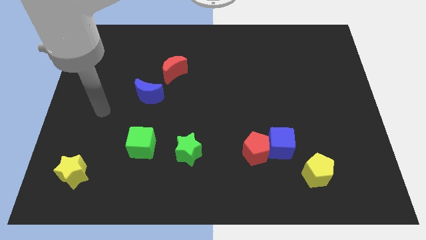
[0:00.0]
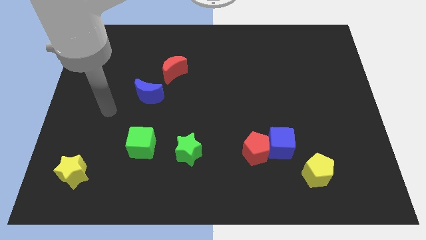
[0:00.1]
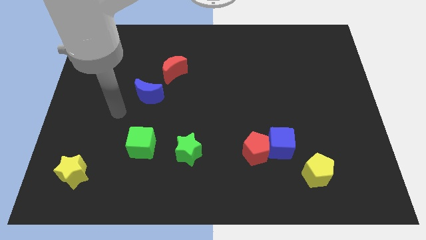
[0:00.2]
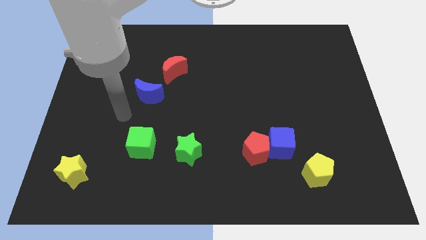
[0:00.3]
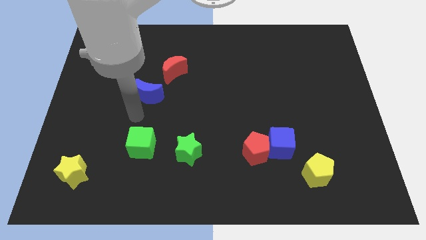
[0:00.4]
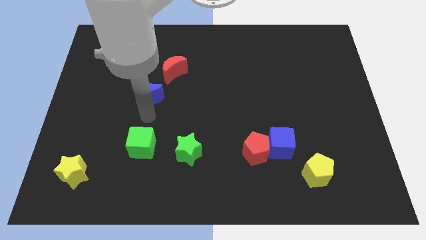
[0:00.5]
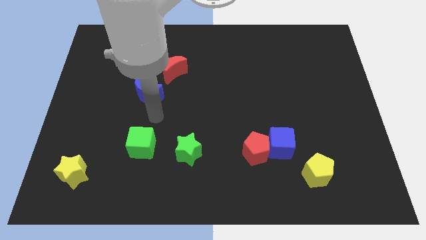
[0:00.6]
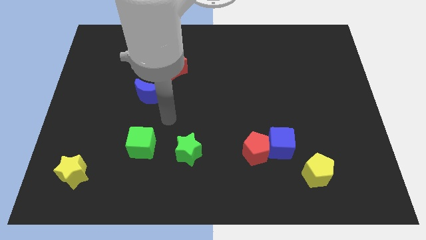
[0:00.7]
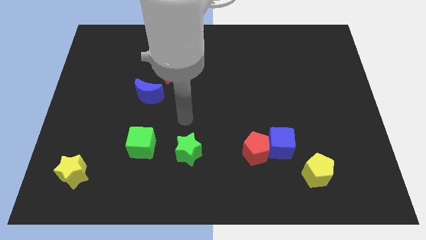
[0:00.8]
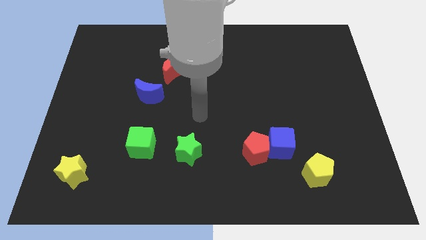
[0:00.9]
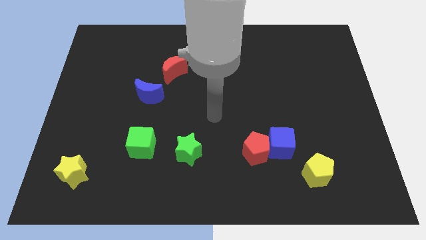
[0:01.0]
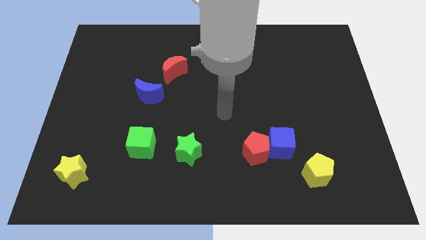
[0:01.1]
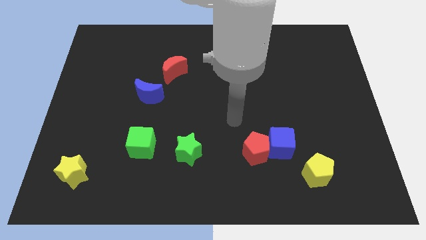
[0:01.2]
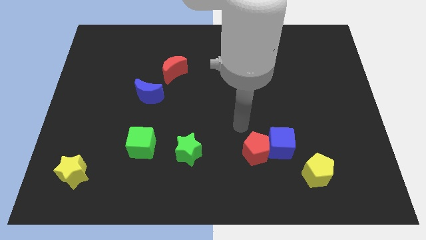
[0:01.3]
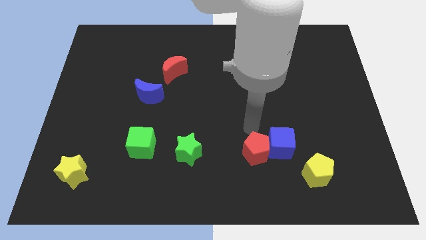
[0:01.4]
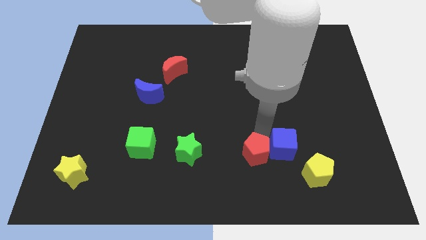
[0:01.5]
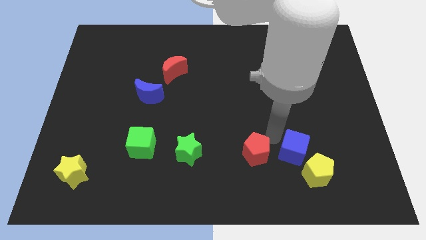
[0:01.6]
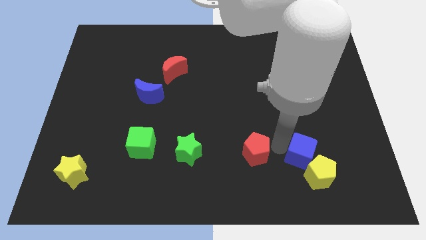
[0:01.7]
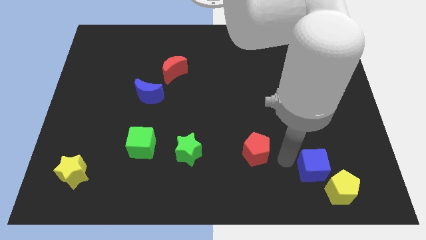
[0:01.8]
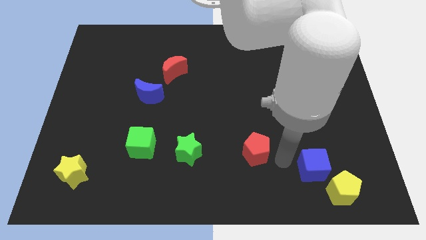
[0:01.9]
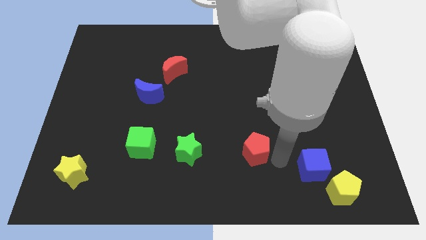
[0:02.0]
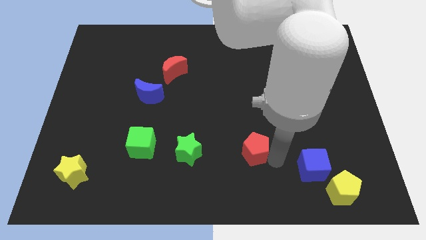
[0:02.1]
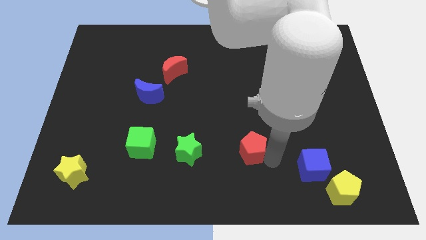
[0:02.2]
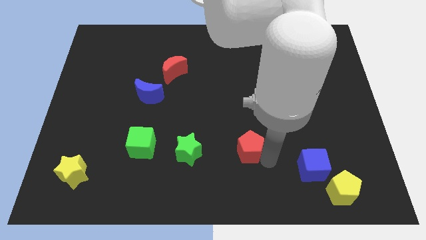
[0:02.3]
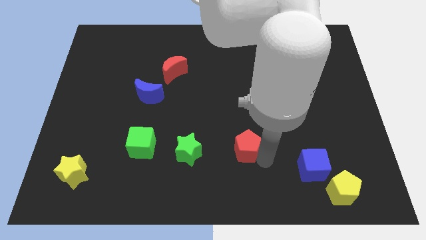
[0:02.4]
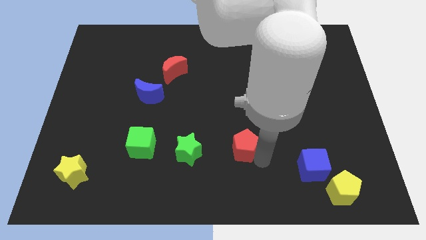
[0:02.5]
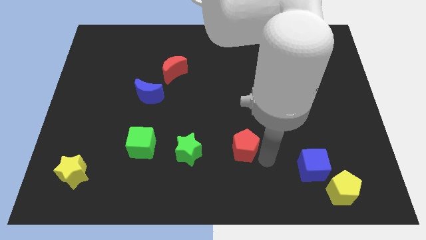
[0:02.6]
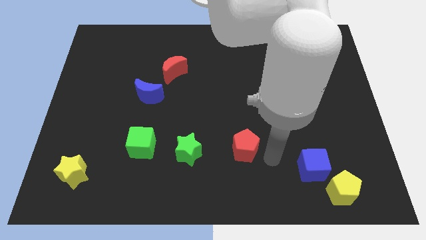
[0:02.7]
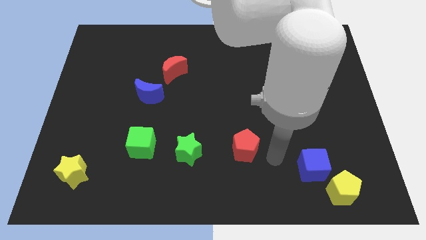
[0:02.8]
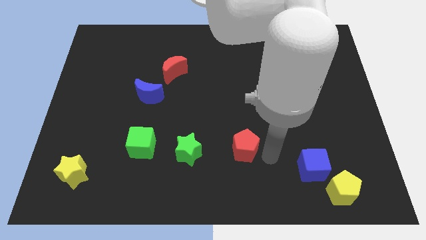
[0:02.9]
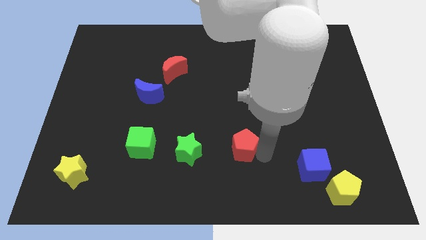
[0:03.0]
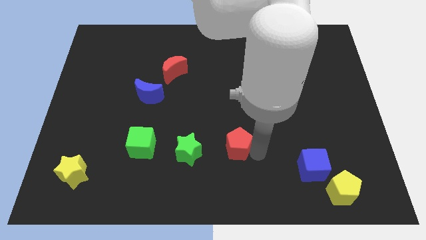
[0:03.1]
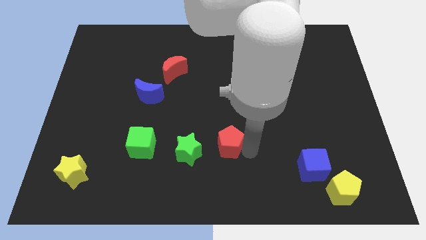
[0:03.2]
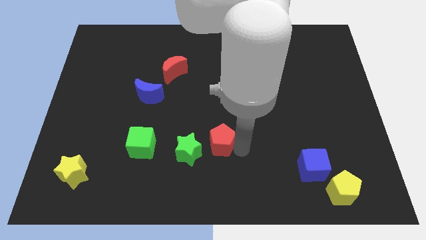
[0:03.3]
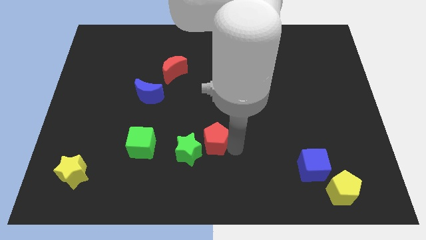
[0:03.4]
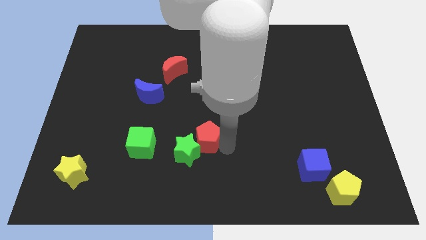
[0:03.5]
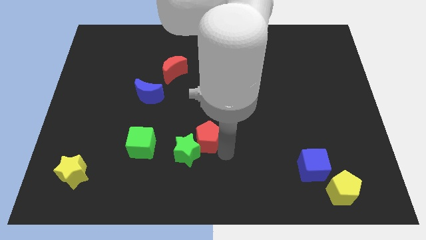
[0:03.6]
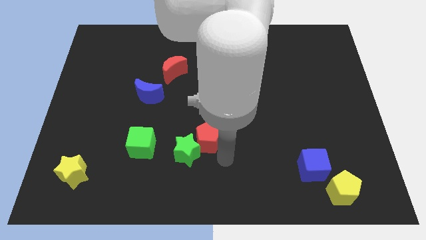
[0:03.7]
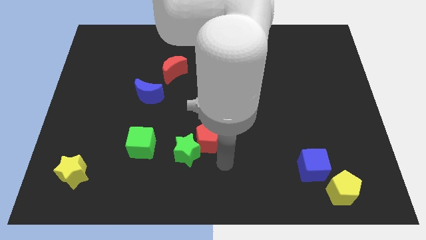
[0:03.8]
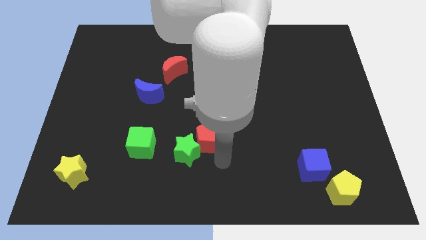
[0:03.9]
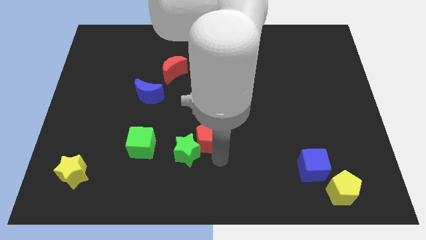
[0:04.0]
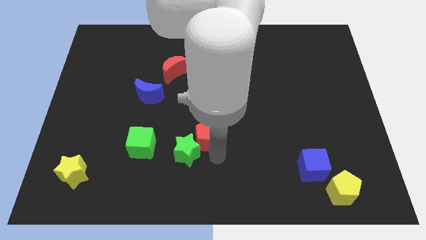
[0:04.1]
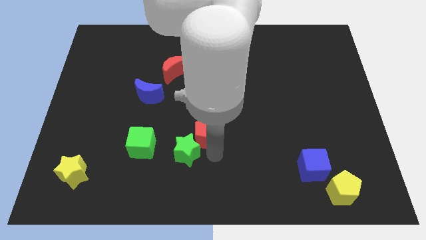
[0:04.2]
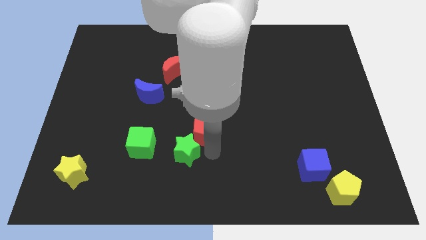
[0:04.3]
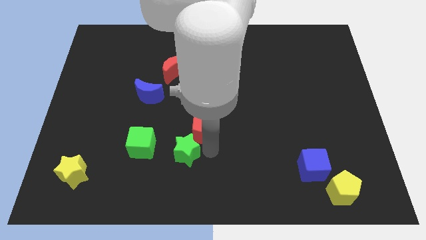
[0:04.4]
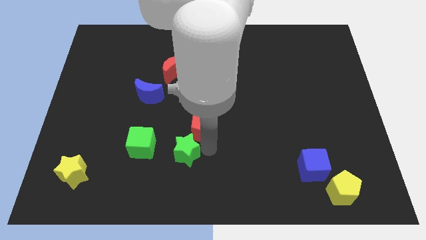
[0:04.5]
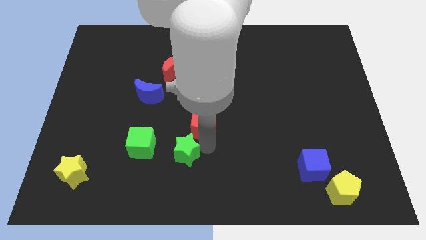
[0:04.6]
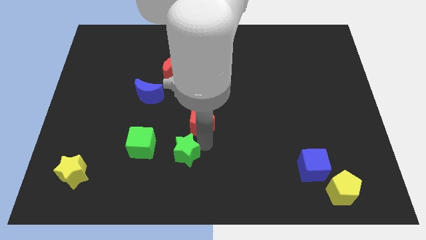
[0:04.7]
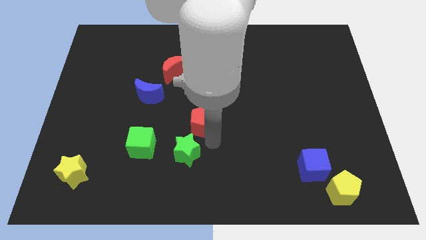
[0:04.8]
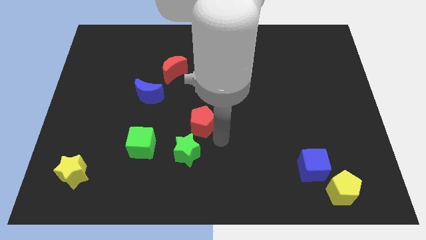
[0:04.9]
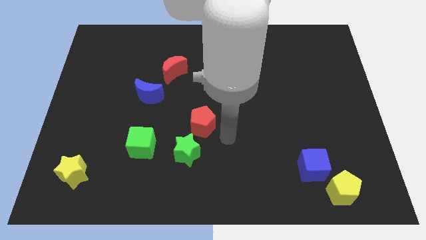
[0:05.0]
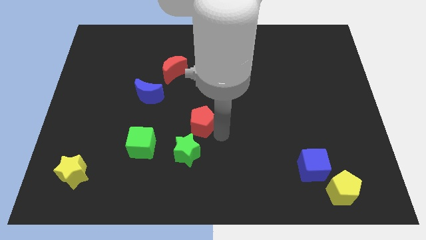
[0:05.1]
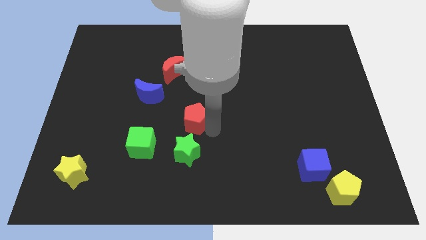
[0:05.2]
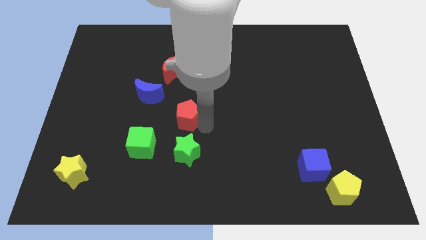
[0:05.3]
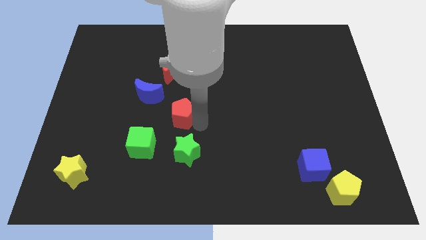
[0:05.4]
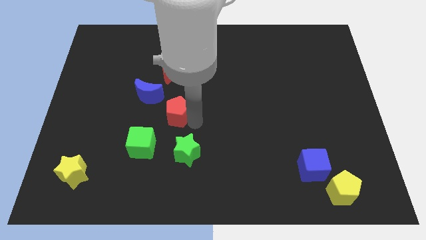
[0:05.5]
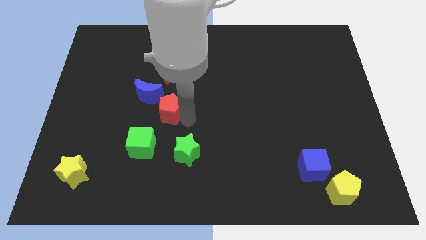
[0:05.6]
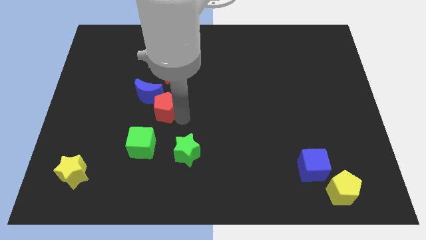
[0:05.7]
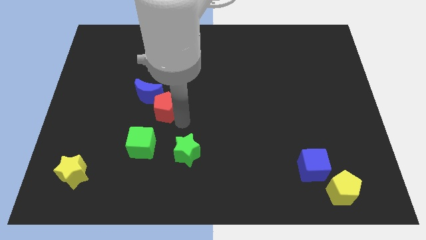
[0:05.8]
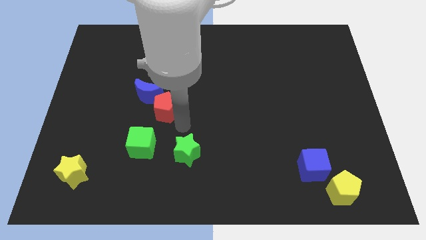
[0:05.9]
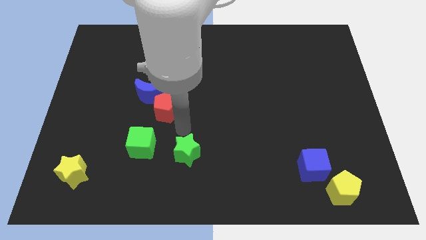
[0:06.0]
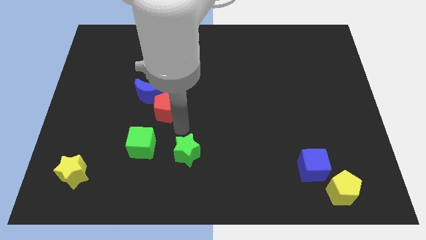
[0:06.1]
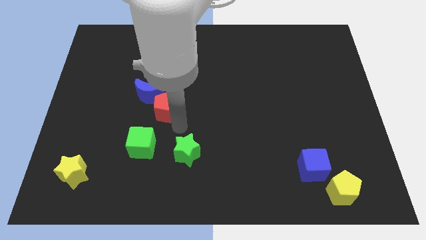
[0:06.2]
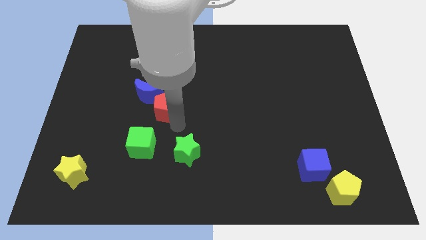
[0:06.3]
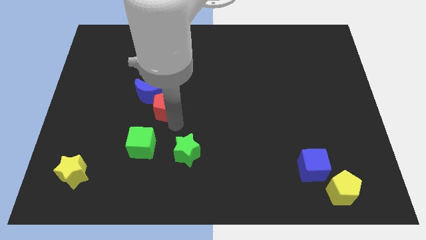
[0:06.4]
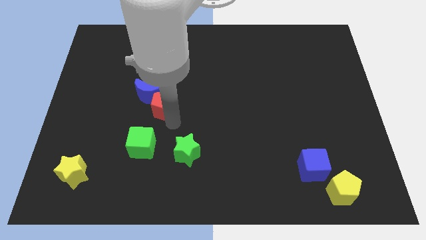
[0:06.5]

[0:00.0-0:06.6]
push the red pentagon next to the blue moon

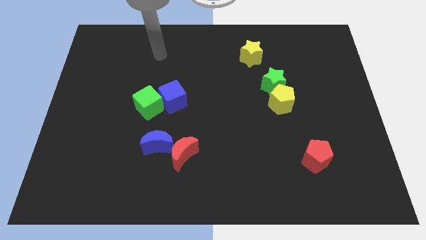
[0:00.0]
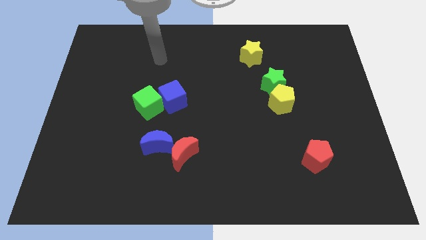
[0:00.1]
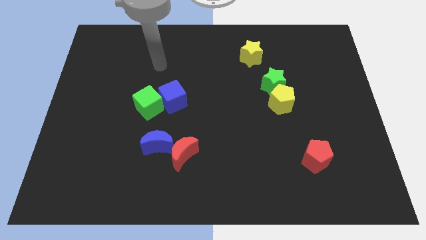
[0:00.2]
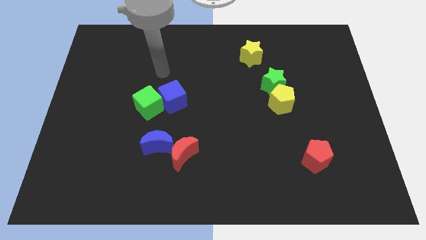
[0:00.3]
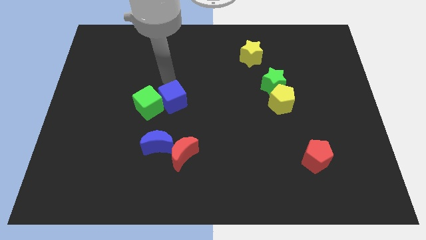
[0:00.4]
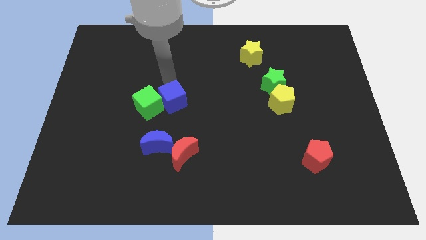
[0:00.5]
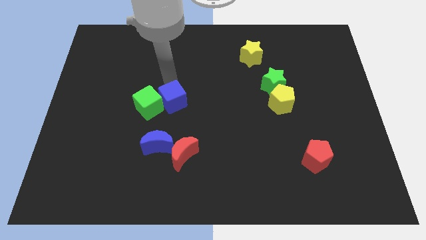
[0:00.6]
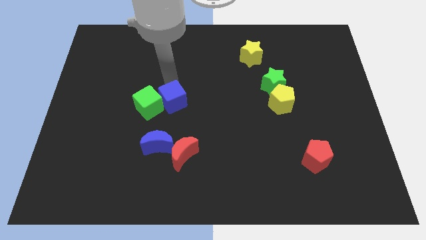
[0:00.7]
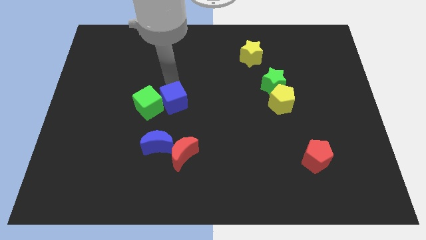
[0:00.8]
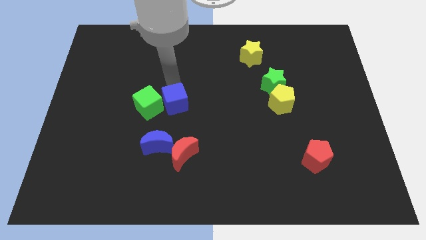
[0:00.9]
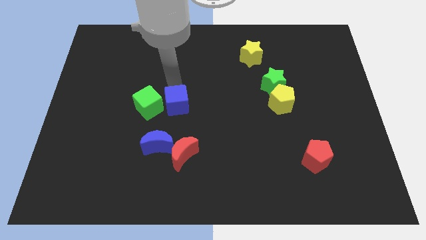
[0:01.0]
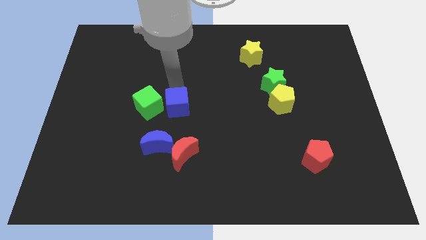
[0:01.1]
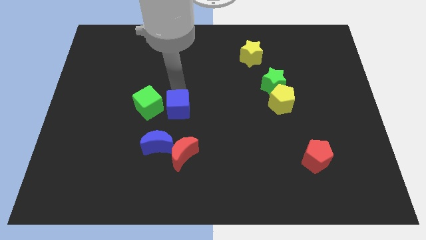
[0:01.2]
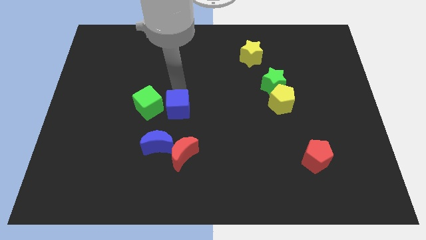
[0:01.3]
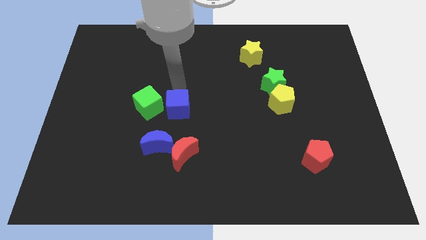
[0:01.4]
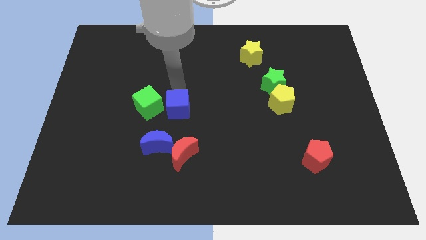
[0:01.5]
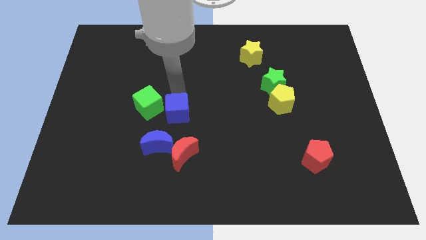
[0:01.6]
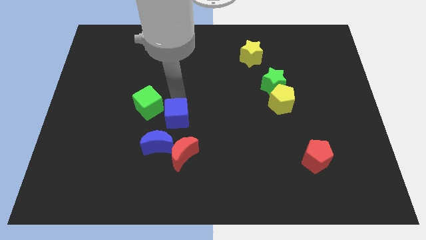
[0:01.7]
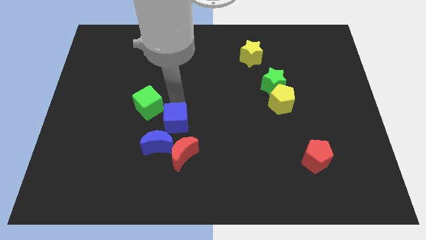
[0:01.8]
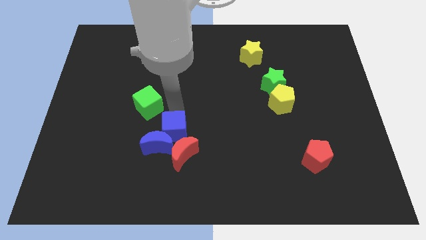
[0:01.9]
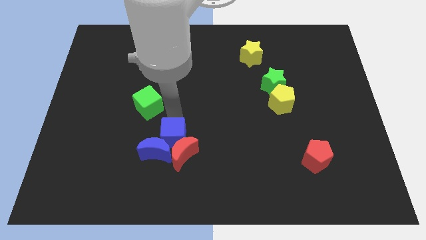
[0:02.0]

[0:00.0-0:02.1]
put the blue cube to the red moon
